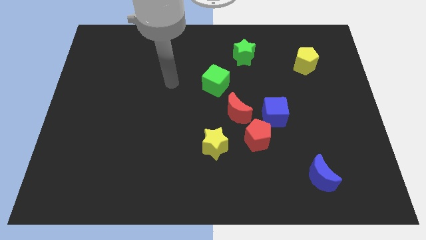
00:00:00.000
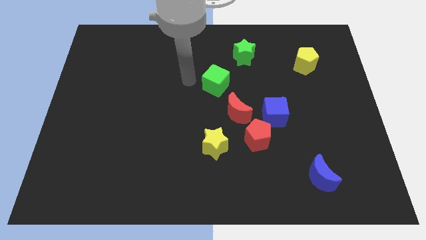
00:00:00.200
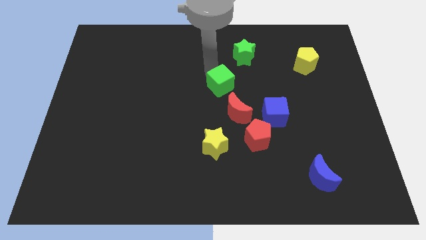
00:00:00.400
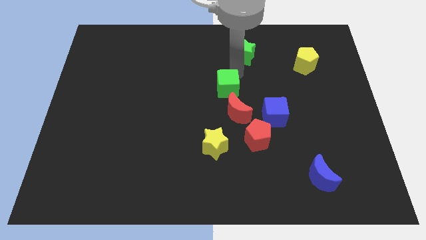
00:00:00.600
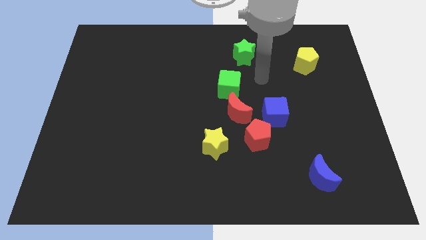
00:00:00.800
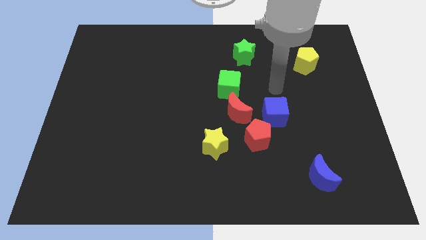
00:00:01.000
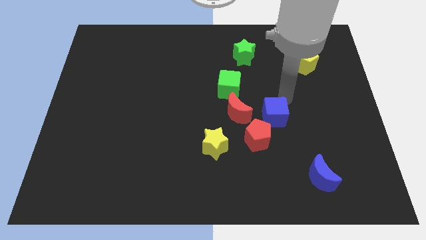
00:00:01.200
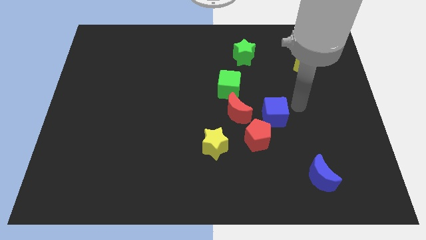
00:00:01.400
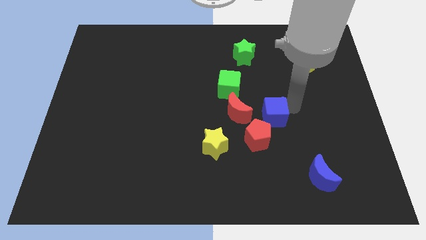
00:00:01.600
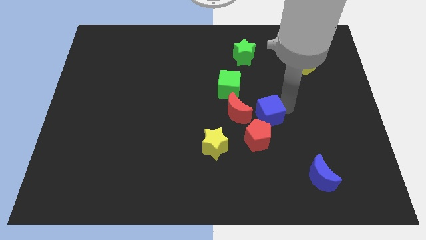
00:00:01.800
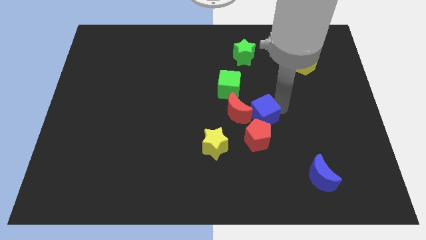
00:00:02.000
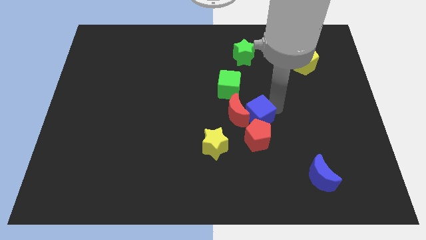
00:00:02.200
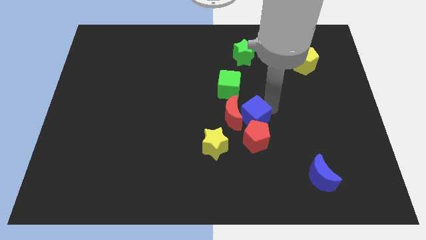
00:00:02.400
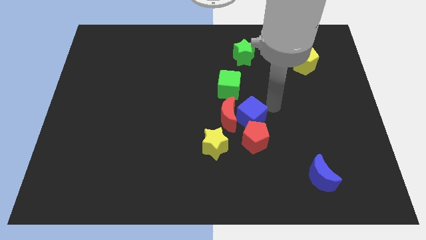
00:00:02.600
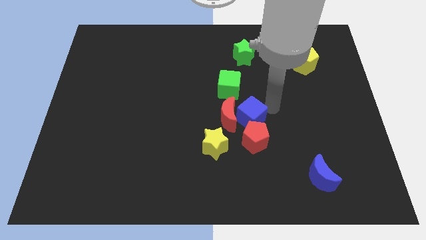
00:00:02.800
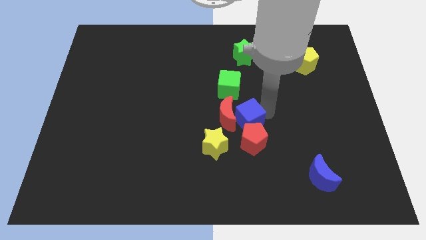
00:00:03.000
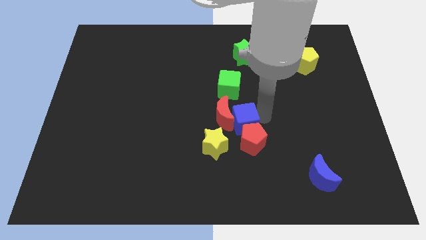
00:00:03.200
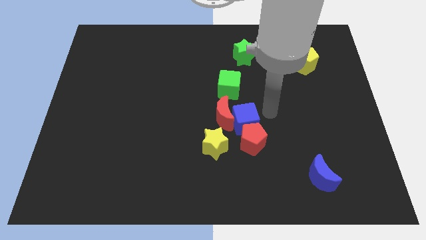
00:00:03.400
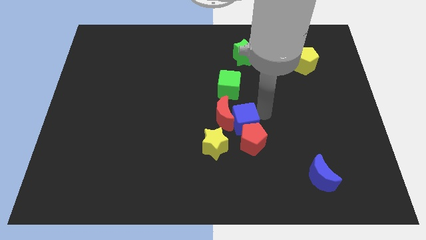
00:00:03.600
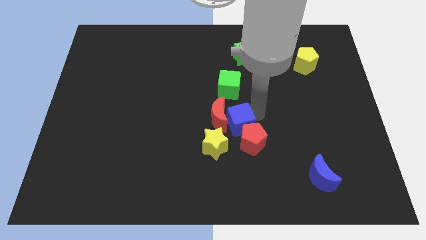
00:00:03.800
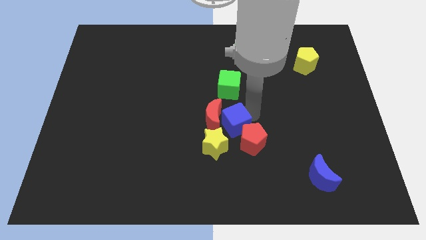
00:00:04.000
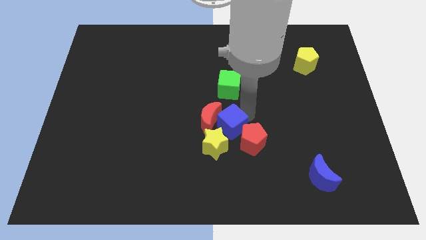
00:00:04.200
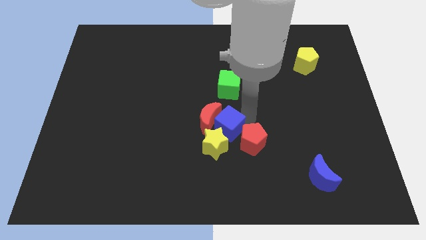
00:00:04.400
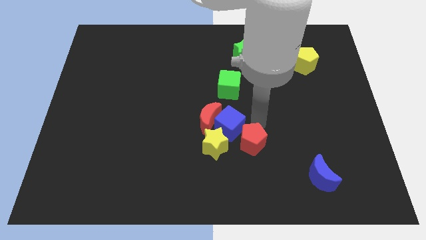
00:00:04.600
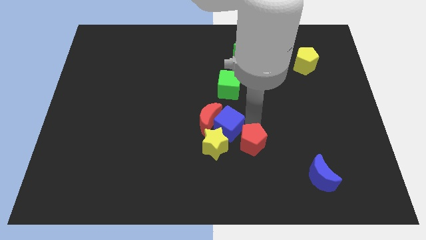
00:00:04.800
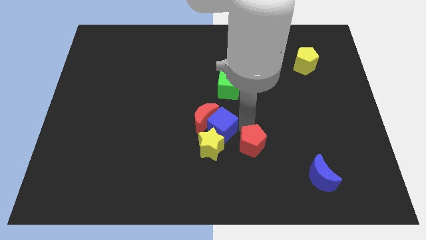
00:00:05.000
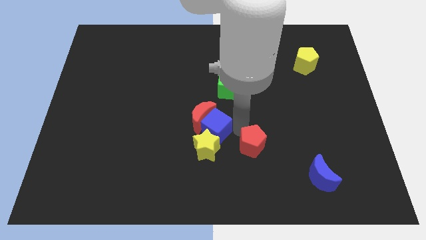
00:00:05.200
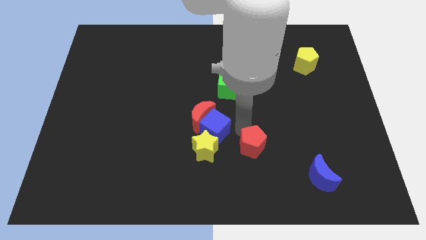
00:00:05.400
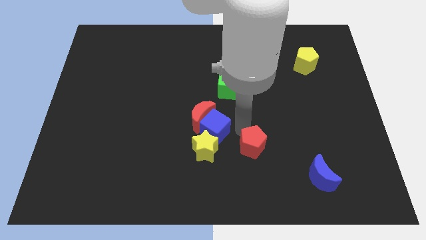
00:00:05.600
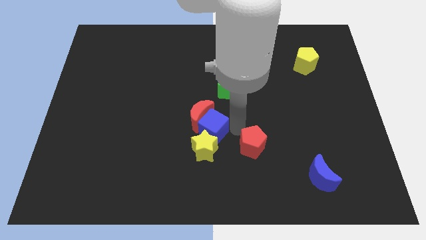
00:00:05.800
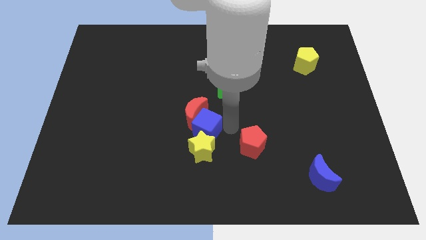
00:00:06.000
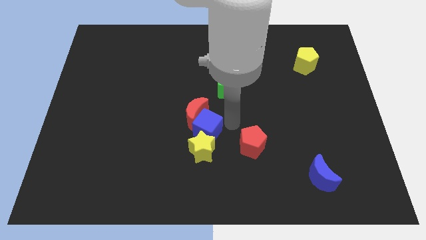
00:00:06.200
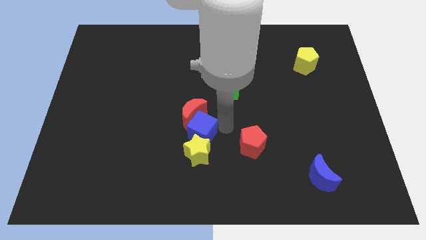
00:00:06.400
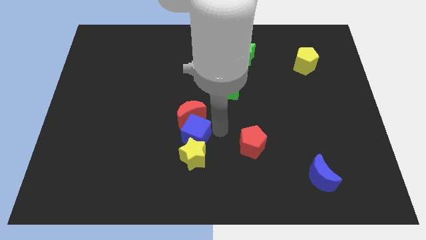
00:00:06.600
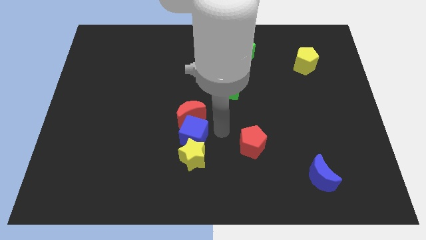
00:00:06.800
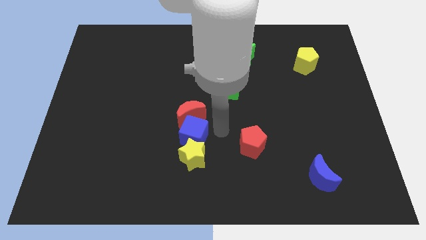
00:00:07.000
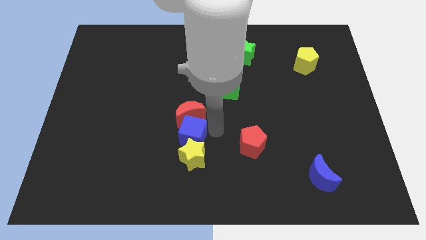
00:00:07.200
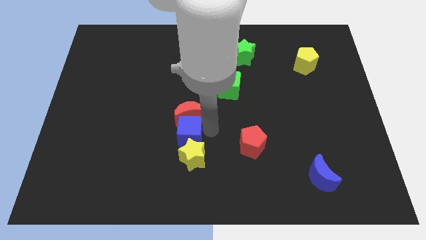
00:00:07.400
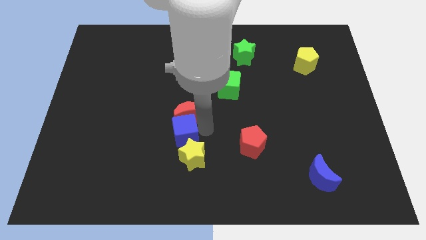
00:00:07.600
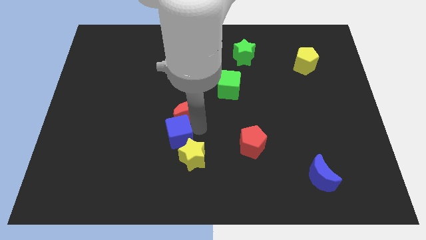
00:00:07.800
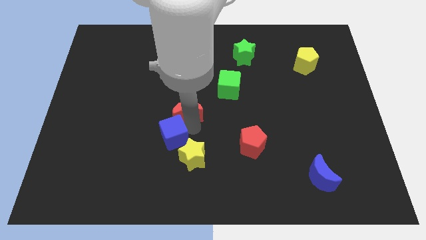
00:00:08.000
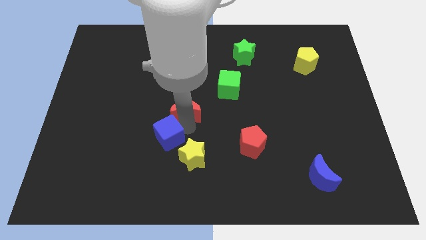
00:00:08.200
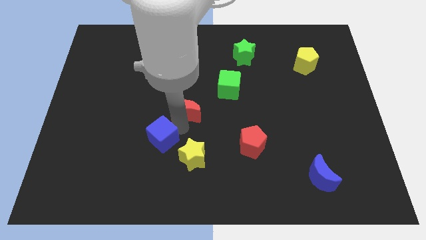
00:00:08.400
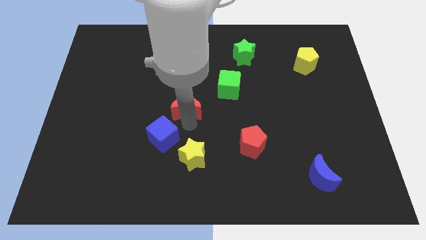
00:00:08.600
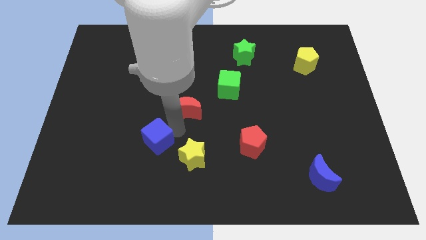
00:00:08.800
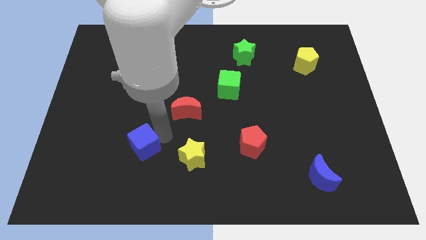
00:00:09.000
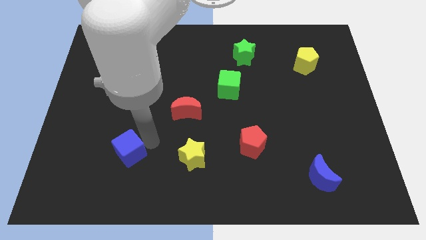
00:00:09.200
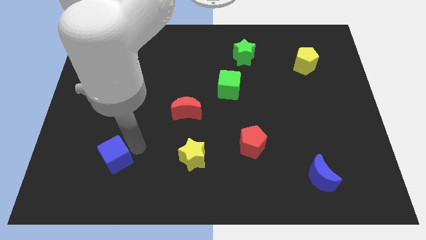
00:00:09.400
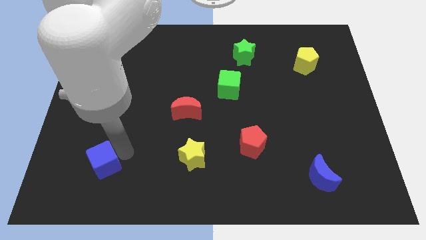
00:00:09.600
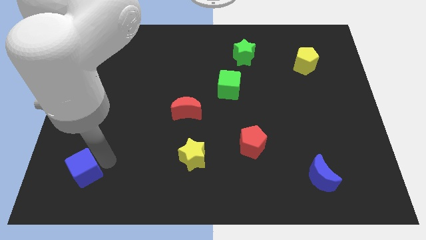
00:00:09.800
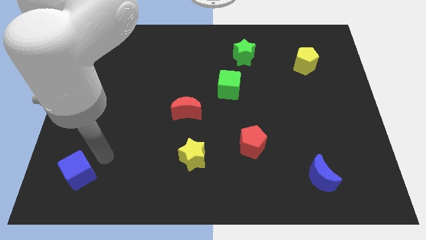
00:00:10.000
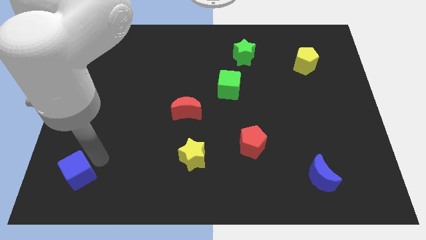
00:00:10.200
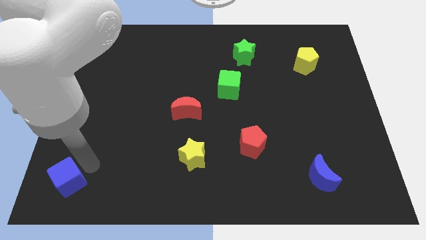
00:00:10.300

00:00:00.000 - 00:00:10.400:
move the blue cube to the bottom left of the board

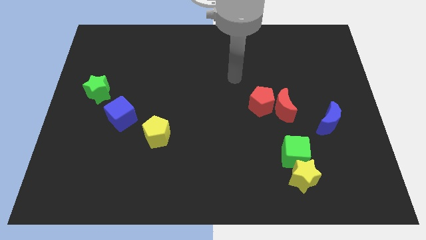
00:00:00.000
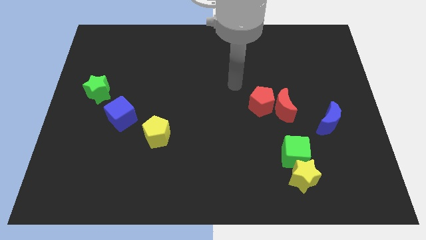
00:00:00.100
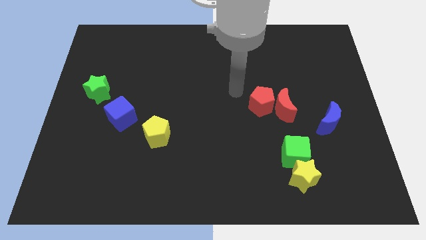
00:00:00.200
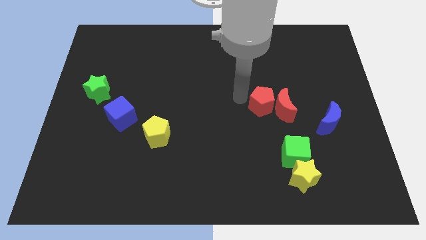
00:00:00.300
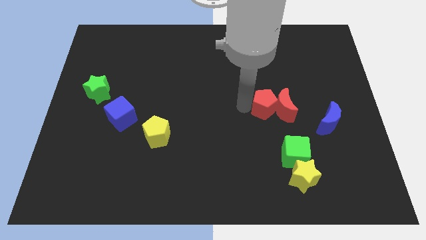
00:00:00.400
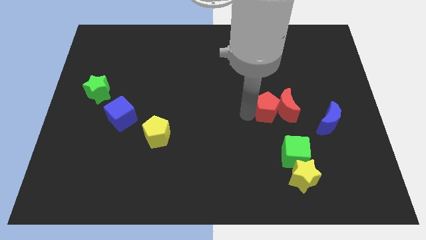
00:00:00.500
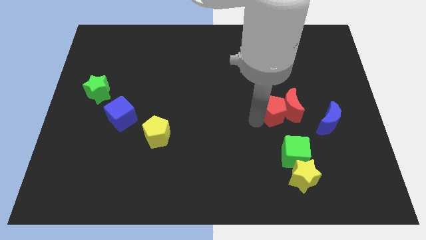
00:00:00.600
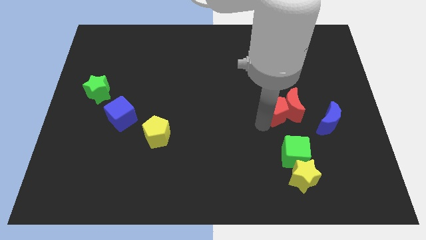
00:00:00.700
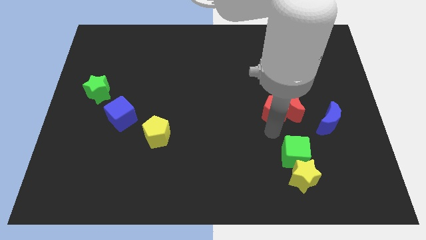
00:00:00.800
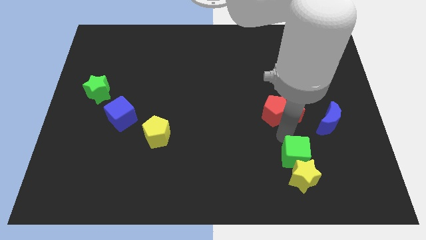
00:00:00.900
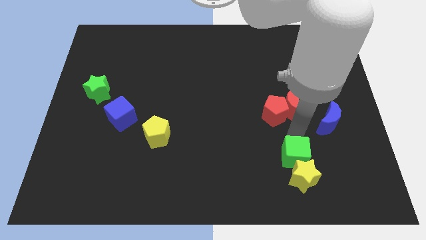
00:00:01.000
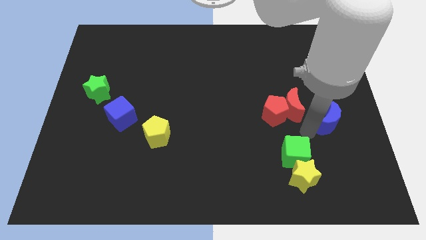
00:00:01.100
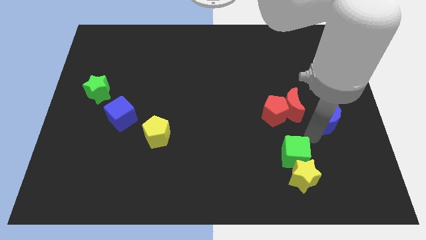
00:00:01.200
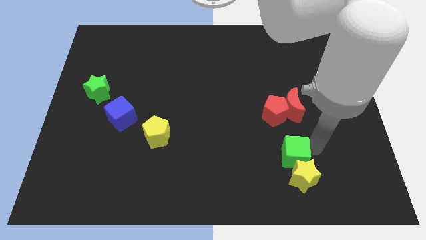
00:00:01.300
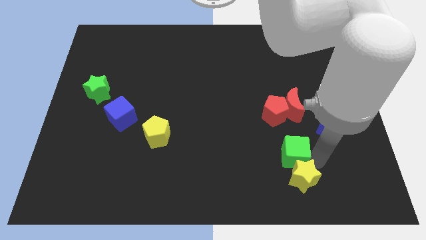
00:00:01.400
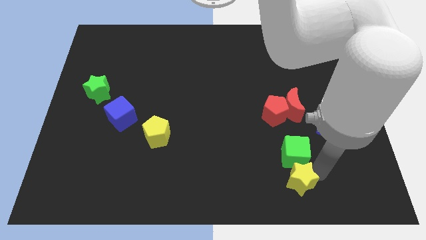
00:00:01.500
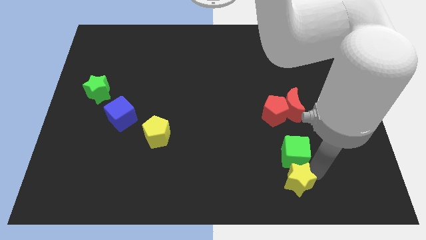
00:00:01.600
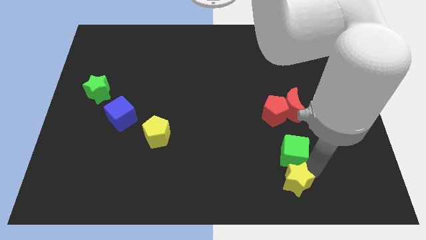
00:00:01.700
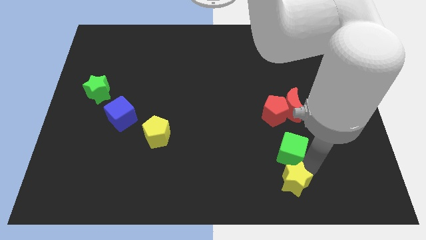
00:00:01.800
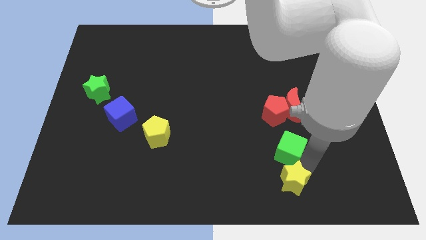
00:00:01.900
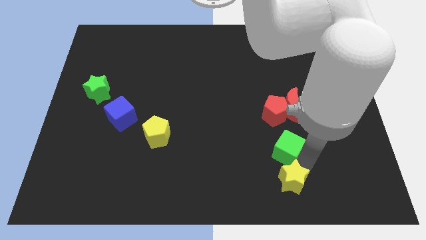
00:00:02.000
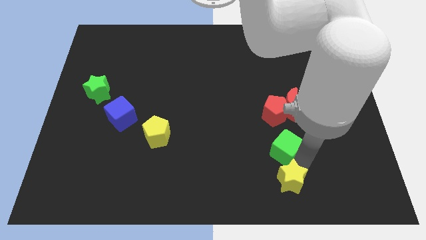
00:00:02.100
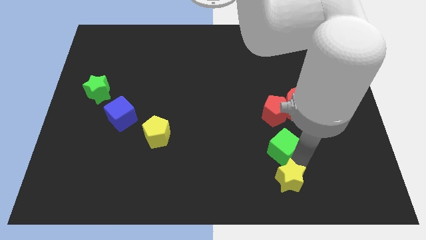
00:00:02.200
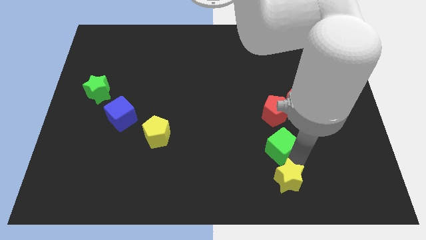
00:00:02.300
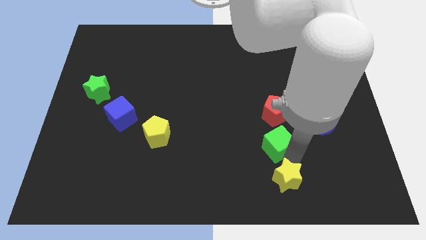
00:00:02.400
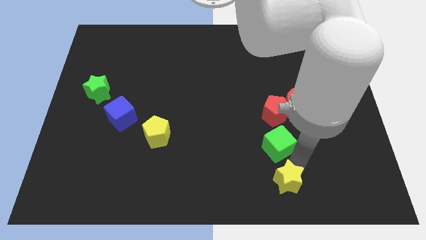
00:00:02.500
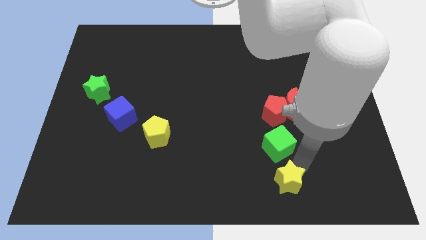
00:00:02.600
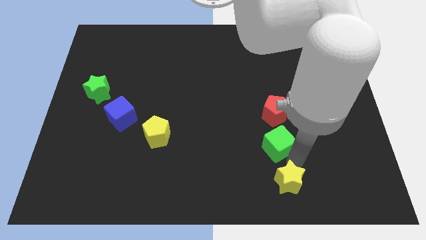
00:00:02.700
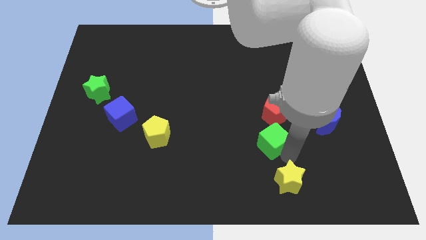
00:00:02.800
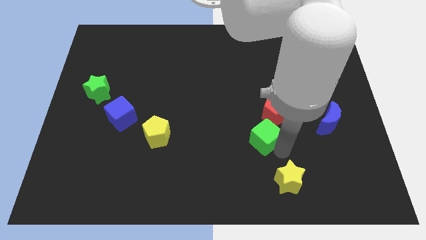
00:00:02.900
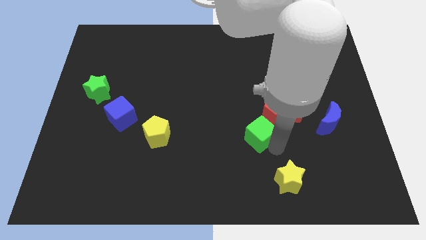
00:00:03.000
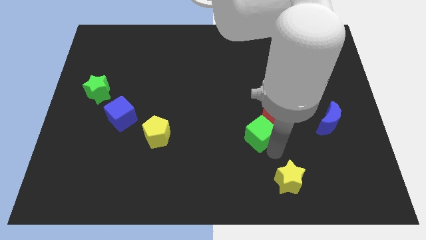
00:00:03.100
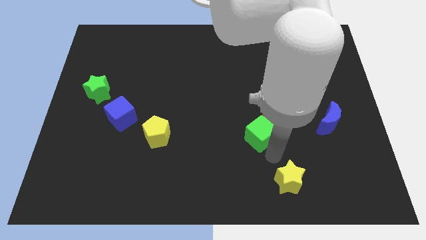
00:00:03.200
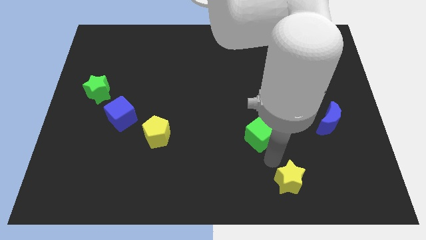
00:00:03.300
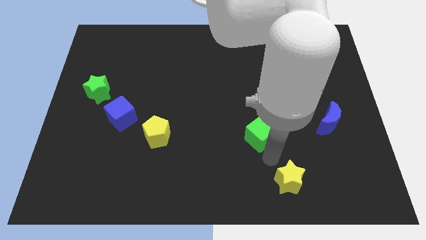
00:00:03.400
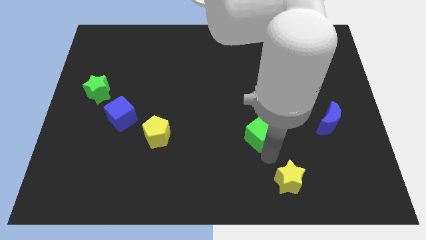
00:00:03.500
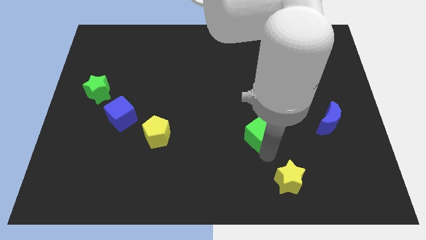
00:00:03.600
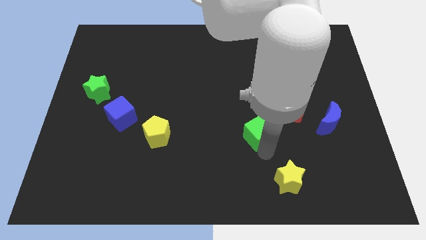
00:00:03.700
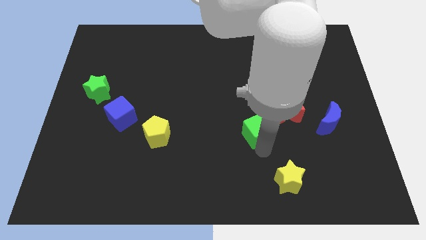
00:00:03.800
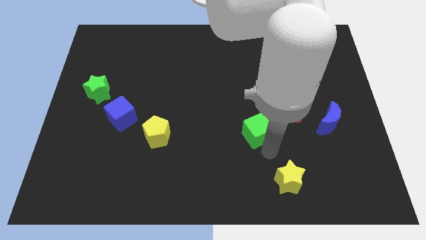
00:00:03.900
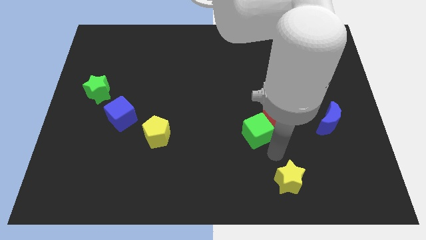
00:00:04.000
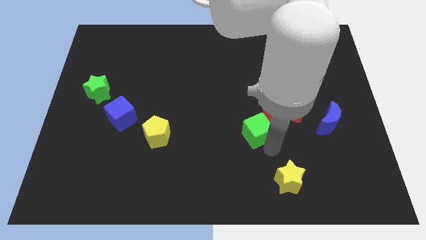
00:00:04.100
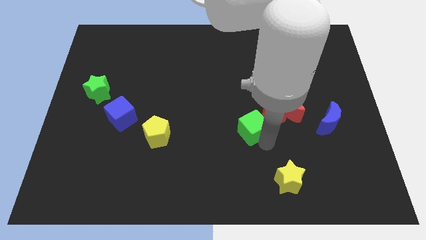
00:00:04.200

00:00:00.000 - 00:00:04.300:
slide the green cube to the middle of the board
